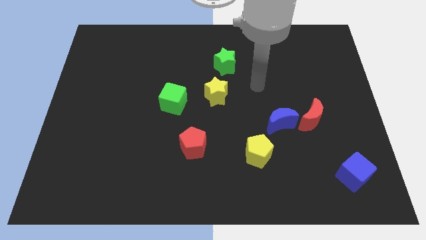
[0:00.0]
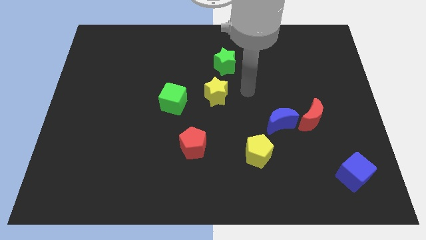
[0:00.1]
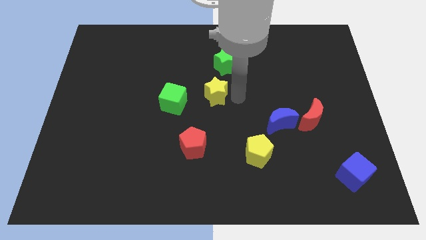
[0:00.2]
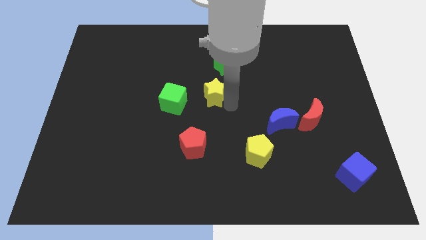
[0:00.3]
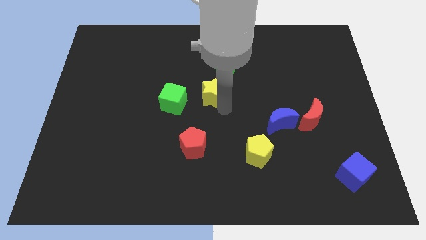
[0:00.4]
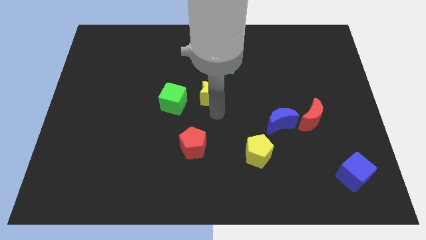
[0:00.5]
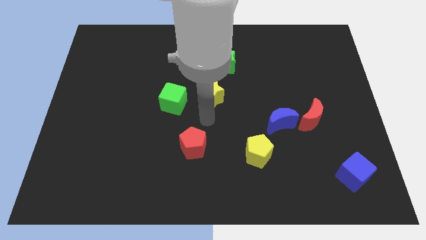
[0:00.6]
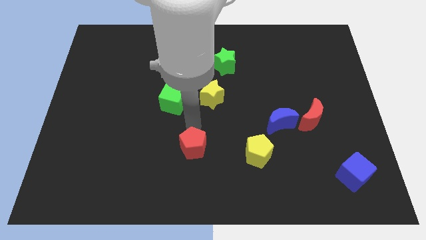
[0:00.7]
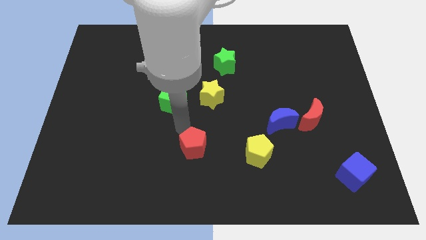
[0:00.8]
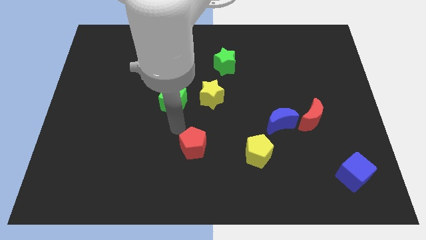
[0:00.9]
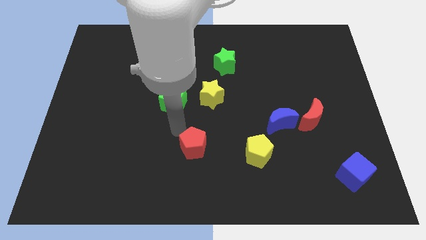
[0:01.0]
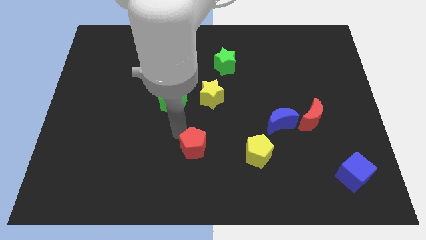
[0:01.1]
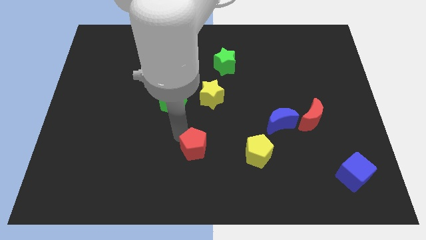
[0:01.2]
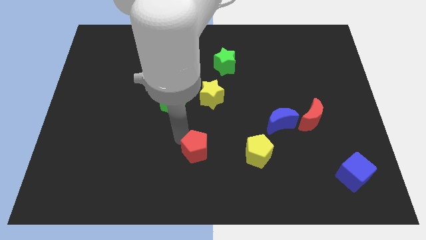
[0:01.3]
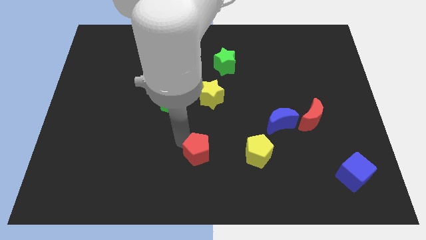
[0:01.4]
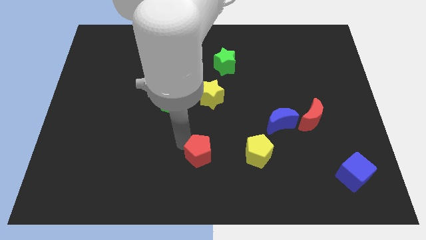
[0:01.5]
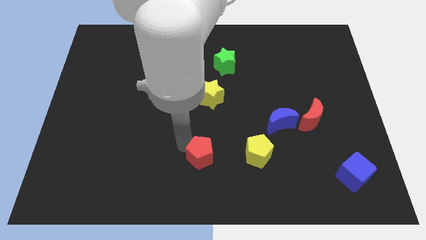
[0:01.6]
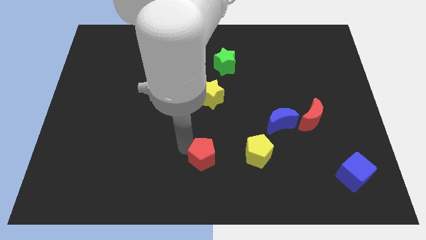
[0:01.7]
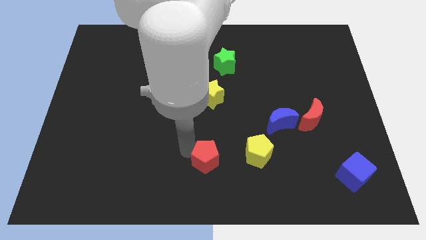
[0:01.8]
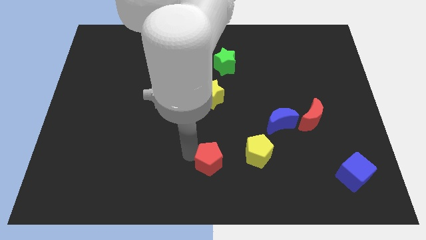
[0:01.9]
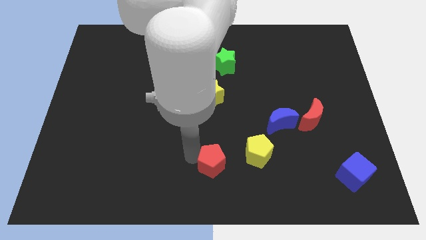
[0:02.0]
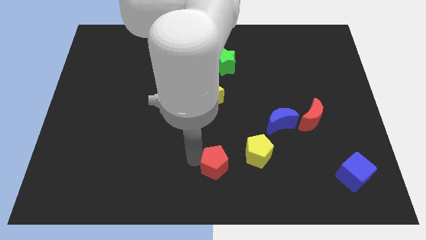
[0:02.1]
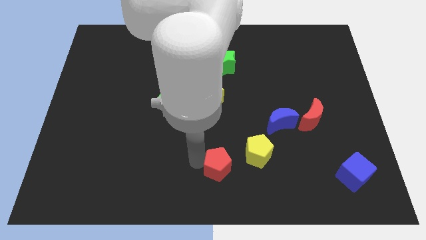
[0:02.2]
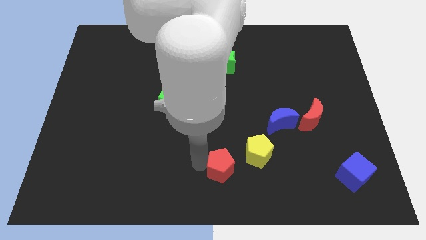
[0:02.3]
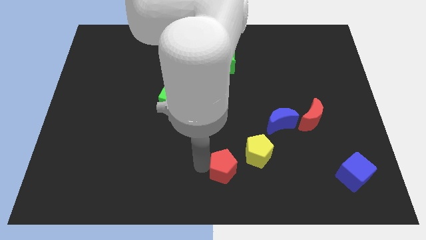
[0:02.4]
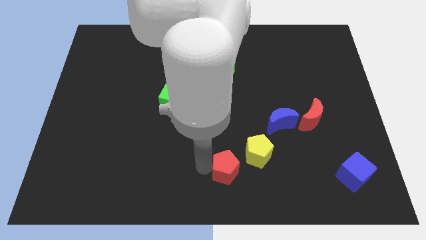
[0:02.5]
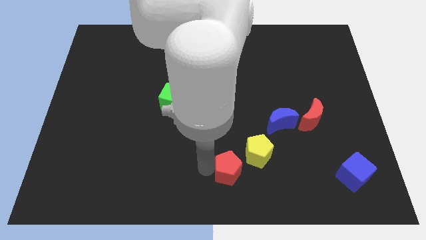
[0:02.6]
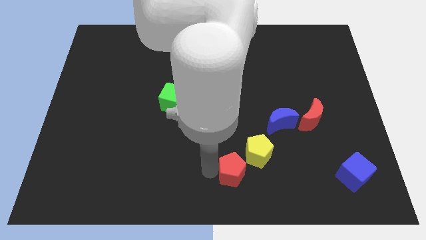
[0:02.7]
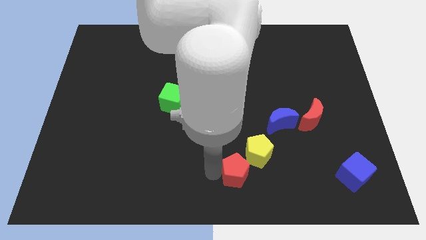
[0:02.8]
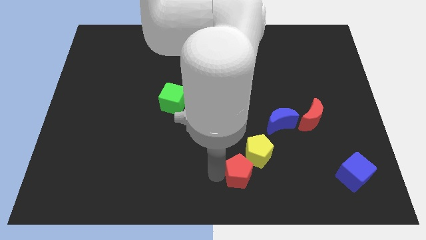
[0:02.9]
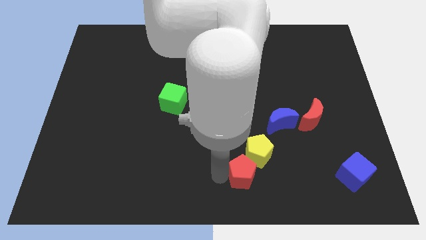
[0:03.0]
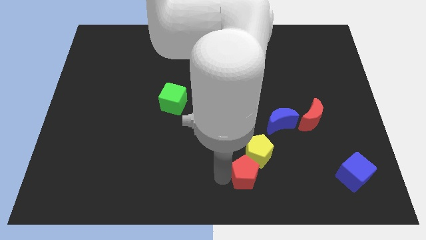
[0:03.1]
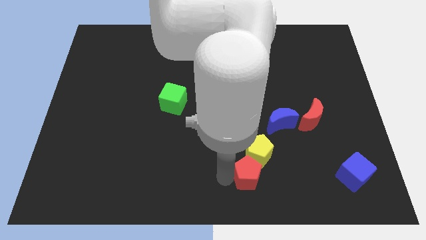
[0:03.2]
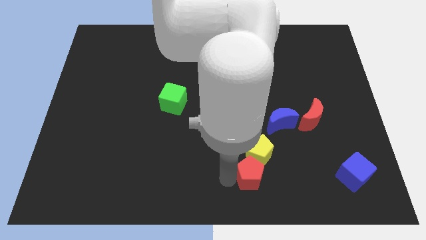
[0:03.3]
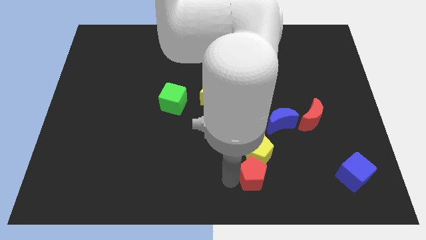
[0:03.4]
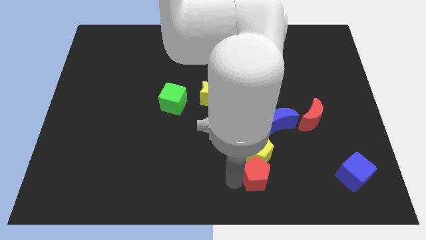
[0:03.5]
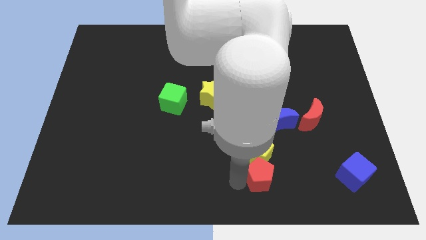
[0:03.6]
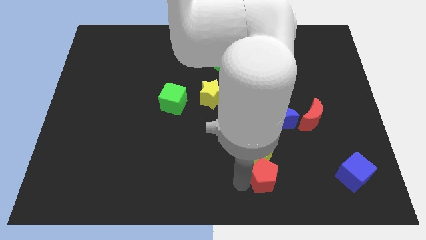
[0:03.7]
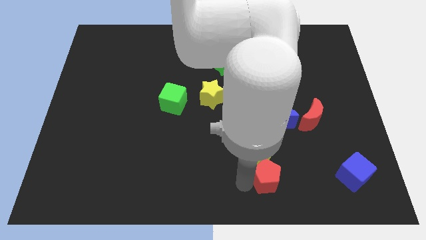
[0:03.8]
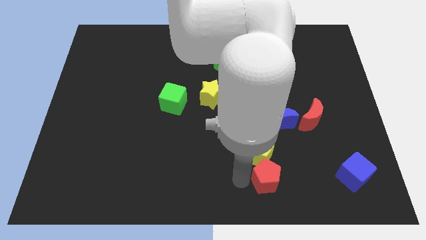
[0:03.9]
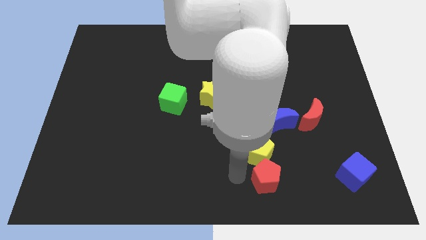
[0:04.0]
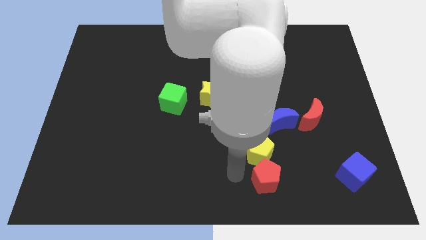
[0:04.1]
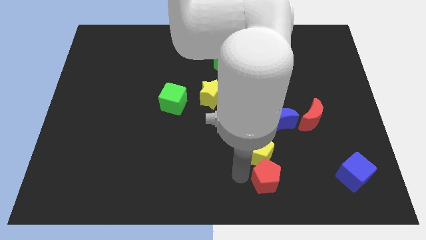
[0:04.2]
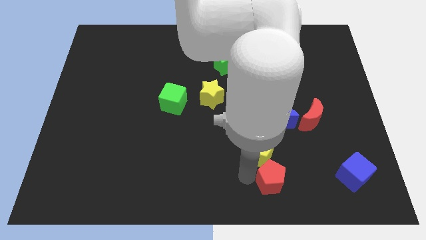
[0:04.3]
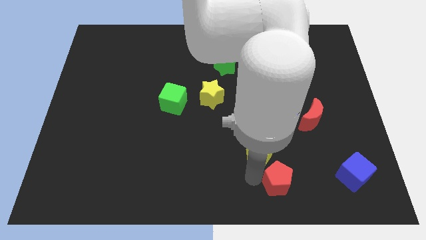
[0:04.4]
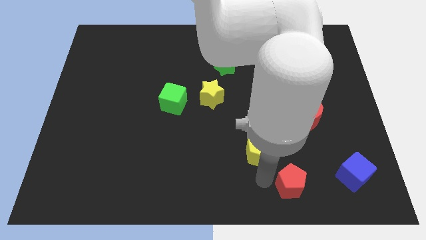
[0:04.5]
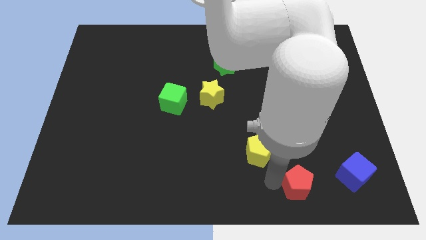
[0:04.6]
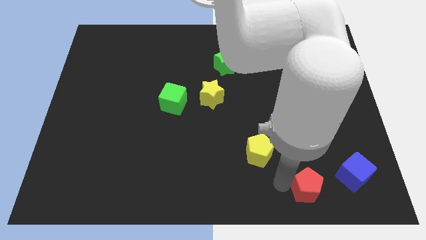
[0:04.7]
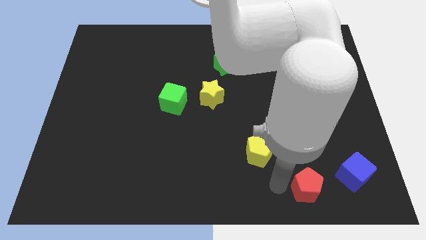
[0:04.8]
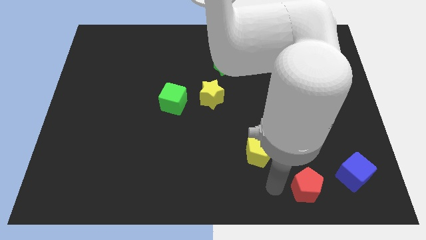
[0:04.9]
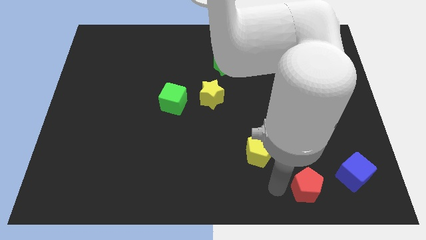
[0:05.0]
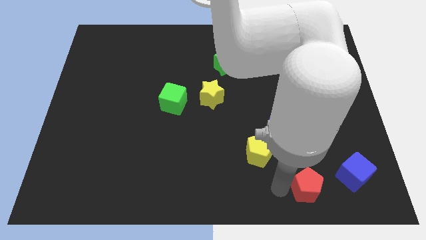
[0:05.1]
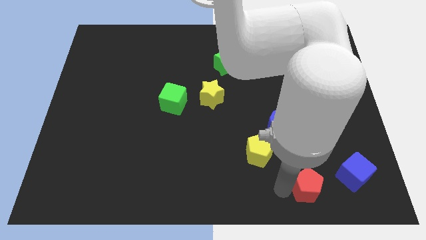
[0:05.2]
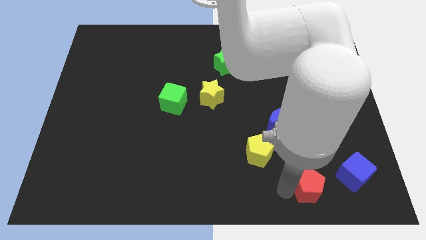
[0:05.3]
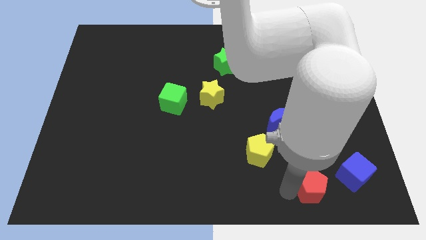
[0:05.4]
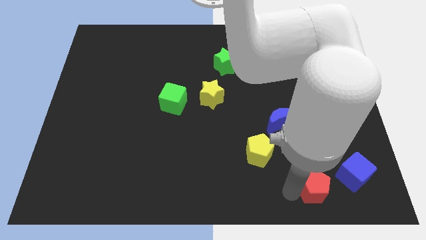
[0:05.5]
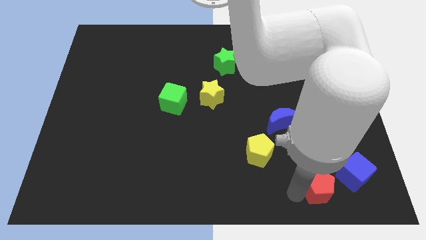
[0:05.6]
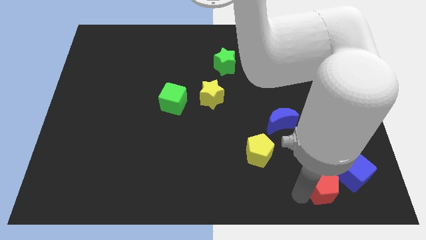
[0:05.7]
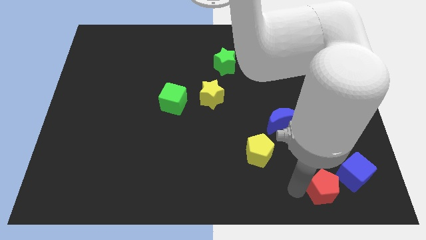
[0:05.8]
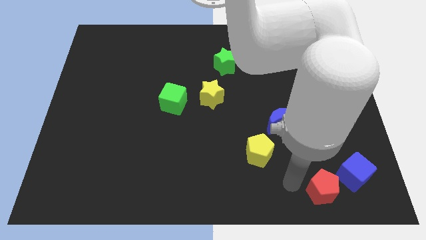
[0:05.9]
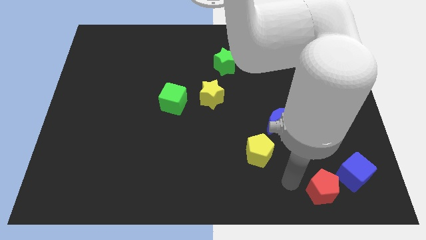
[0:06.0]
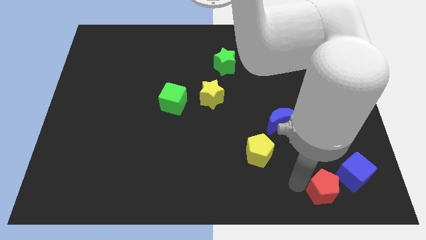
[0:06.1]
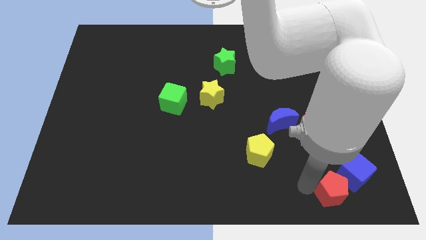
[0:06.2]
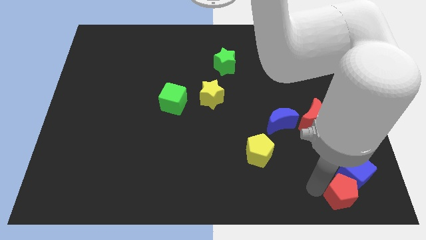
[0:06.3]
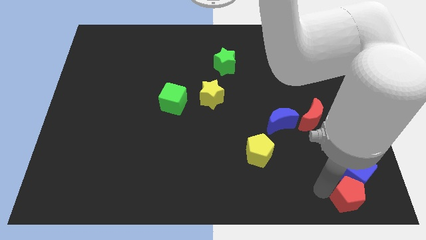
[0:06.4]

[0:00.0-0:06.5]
slide the red pentagon to the lower right corner
